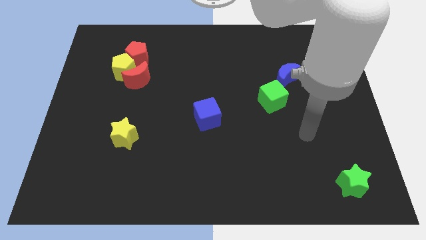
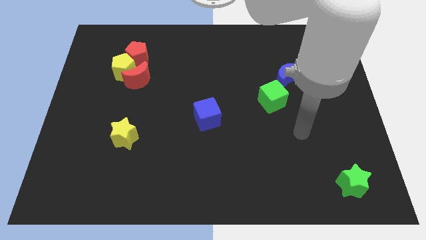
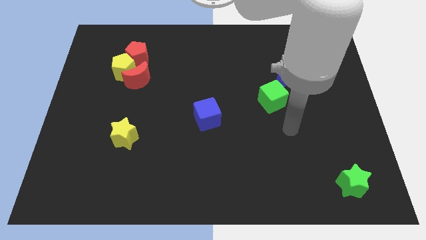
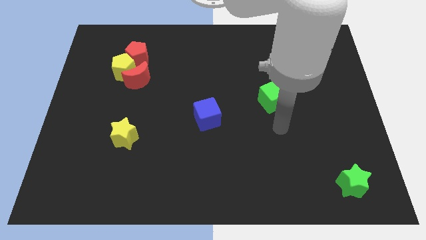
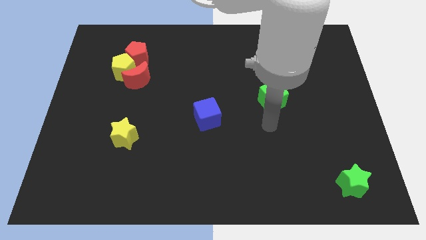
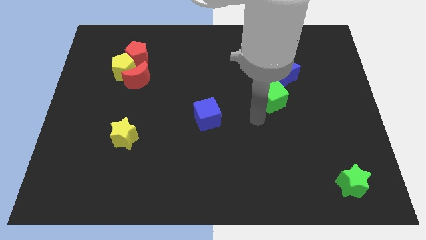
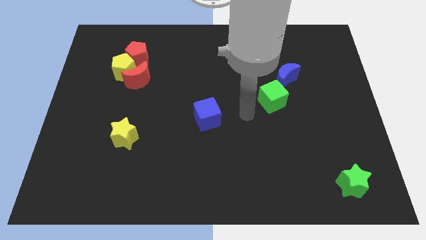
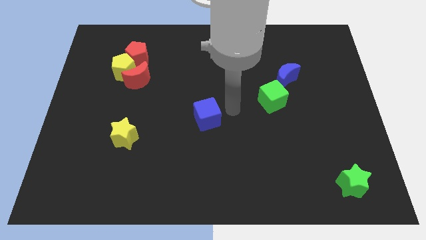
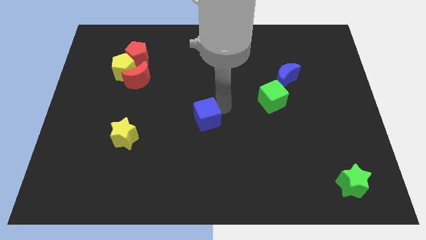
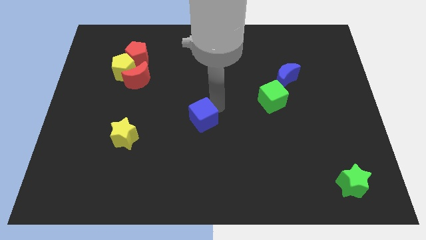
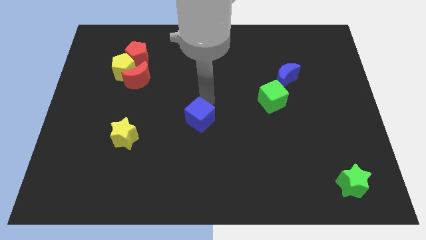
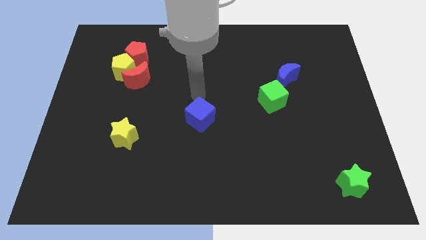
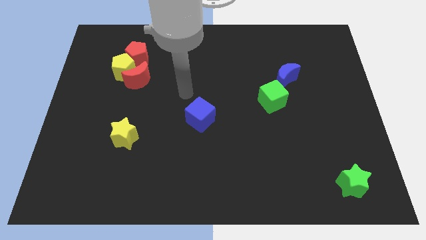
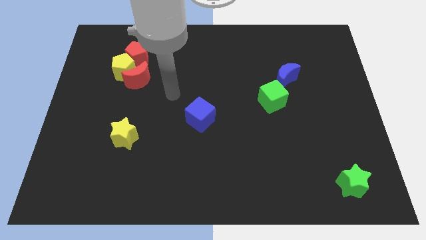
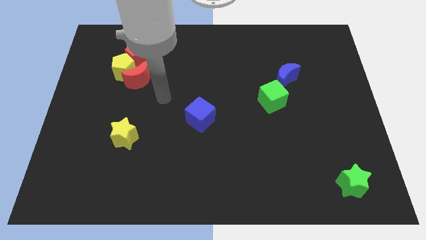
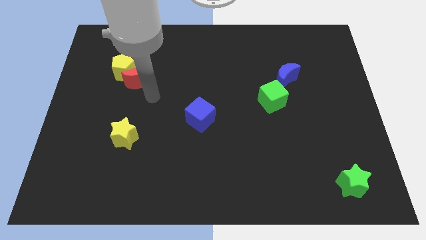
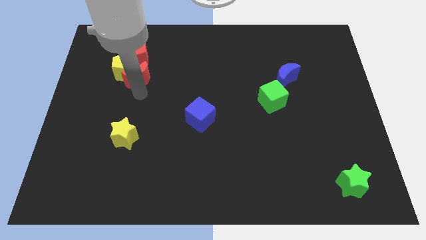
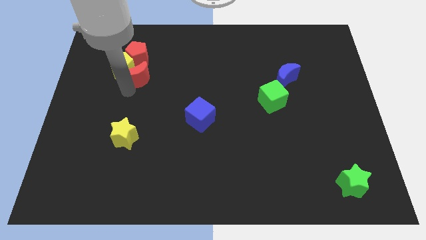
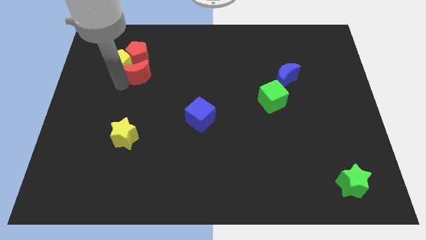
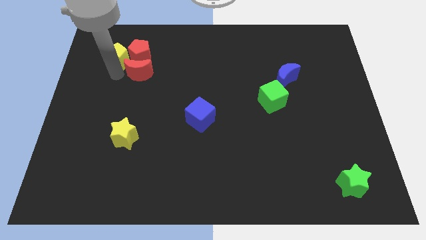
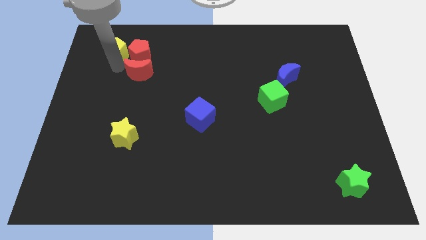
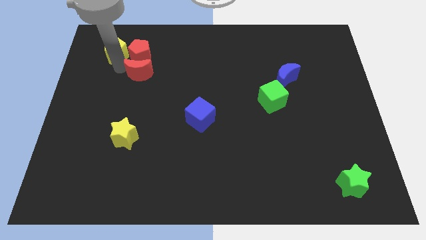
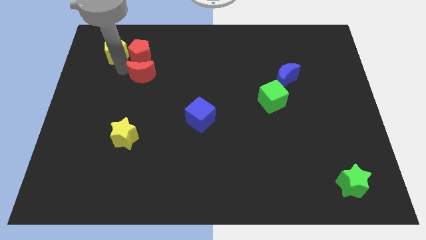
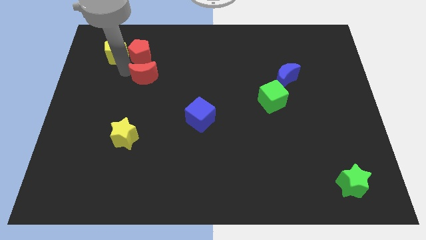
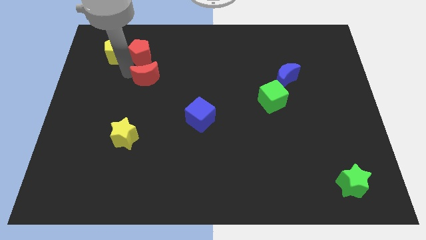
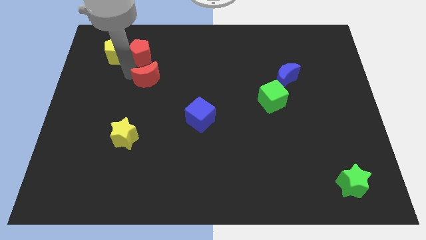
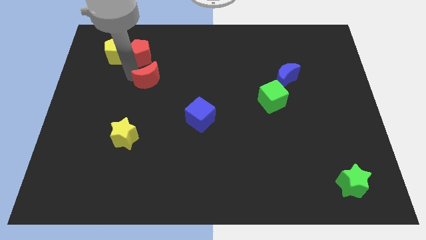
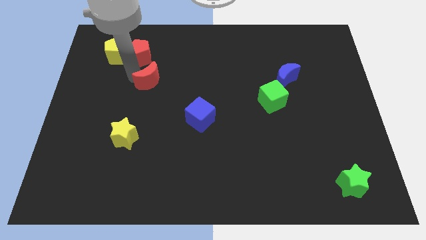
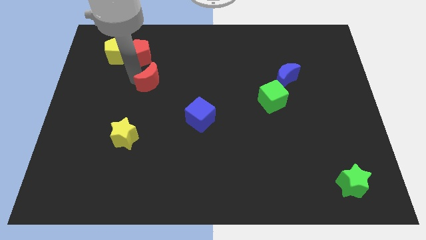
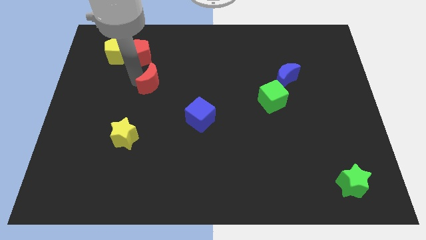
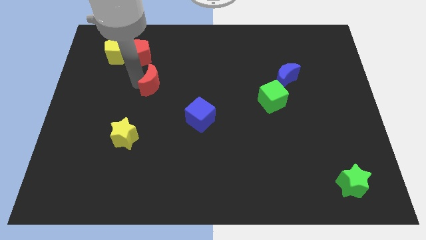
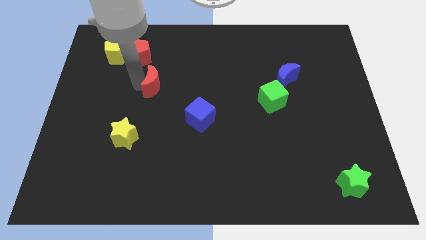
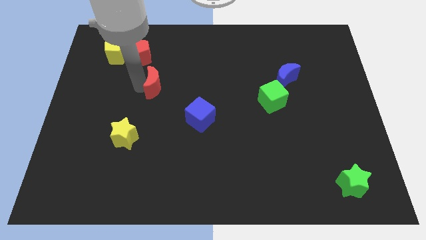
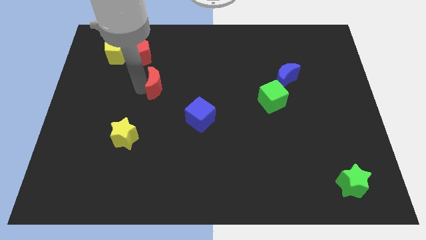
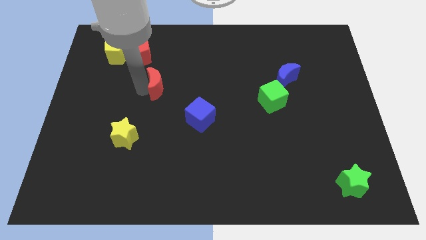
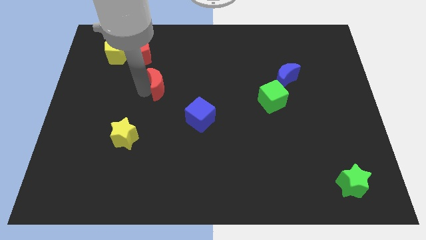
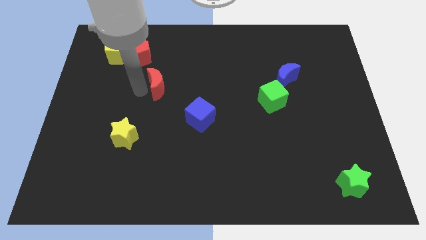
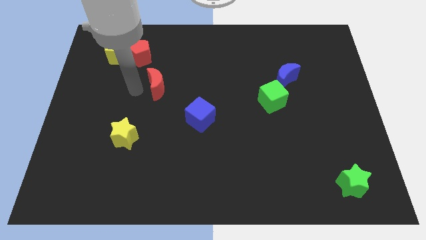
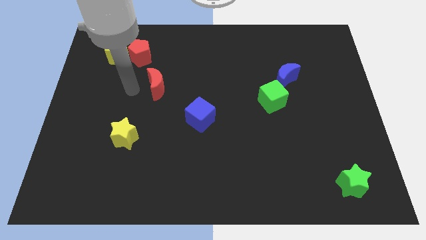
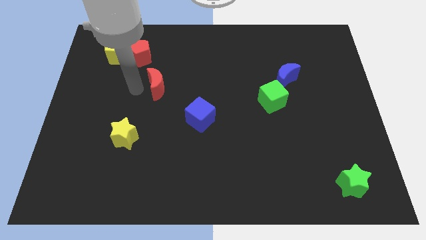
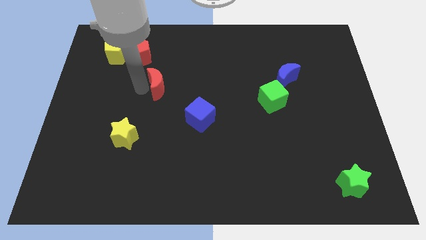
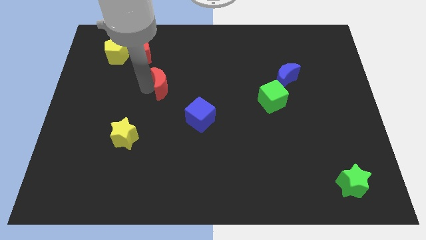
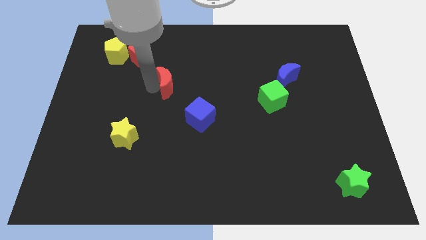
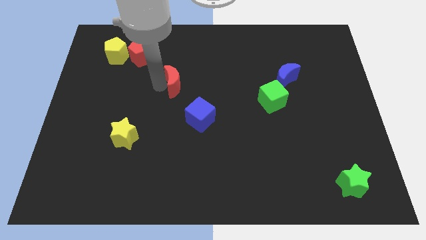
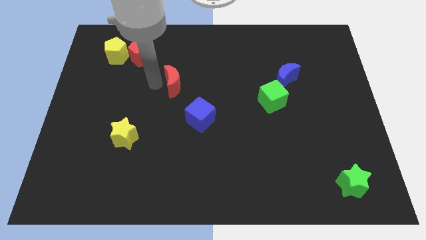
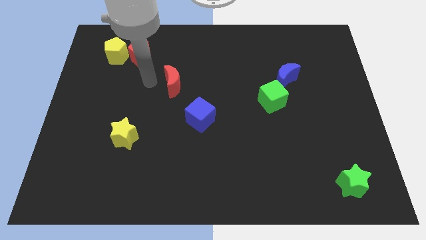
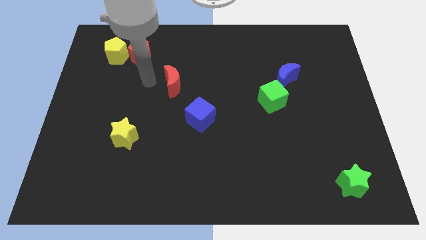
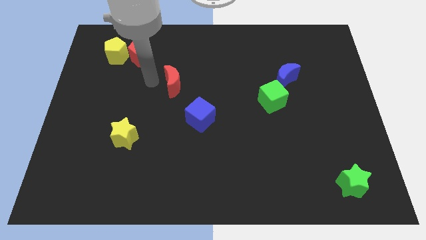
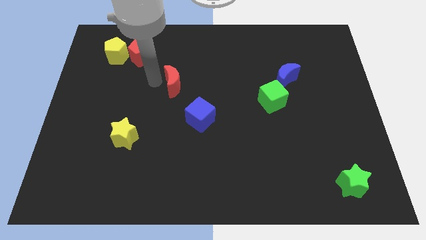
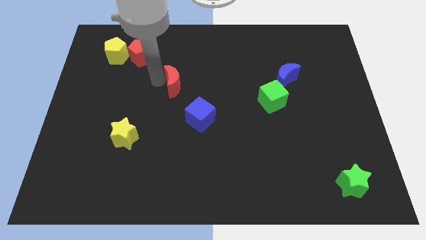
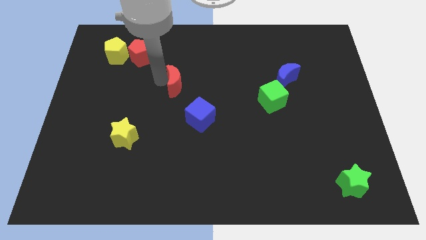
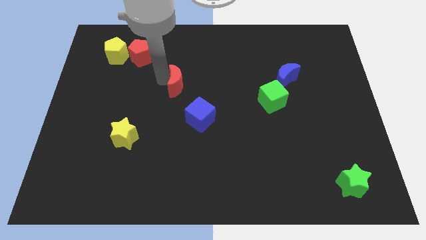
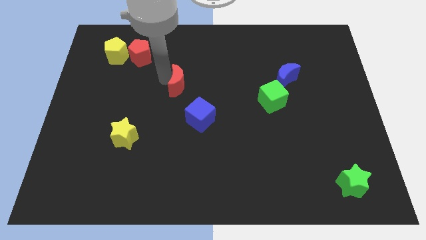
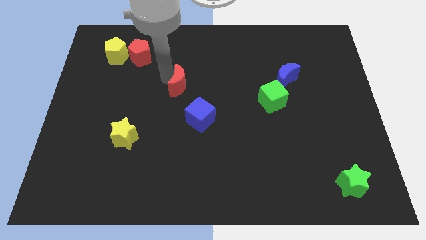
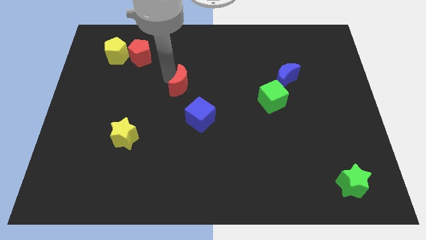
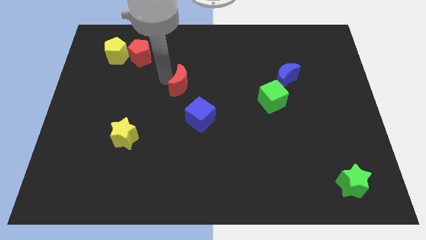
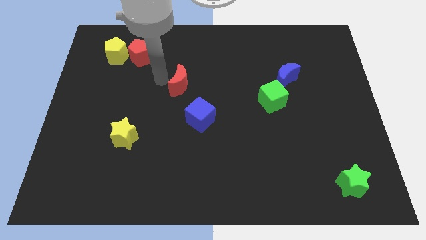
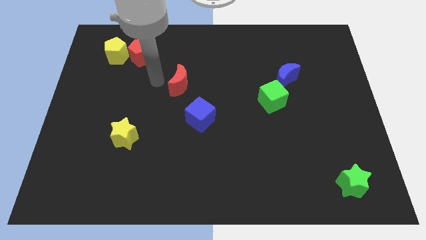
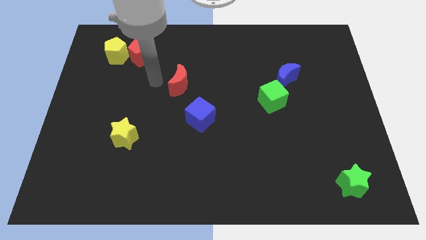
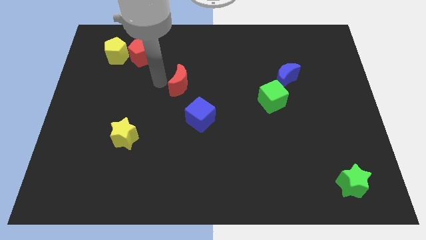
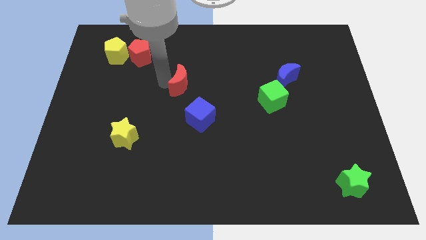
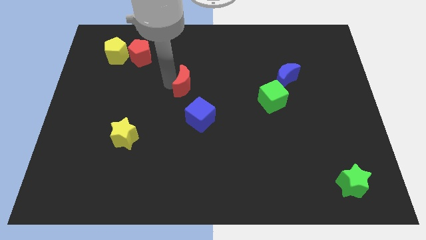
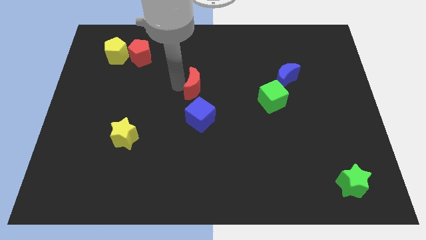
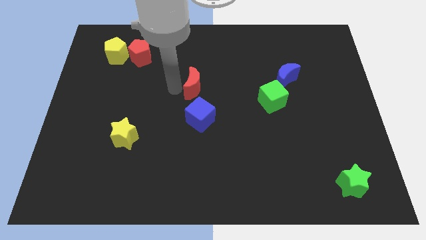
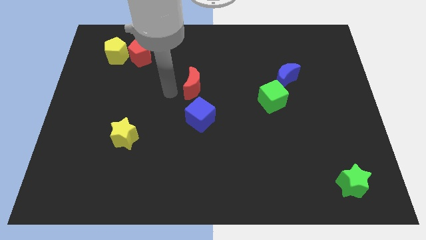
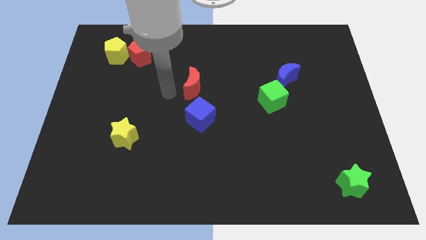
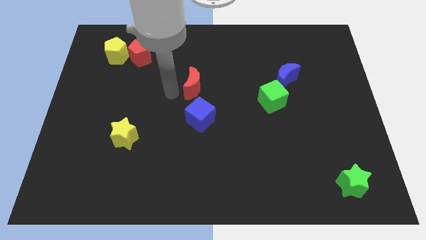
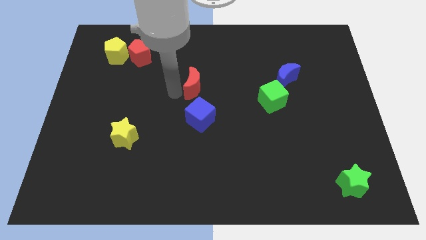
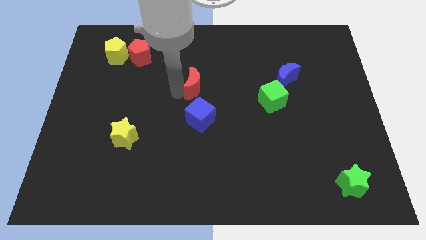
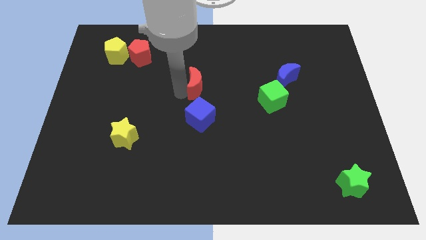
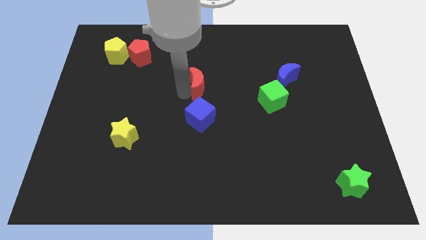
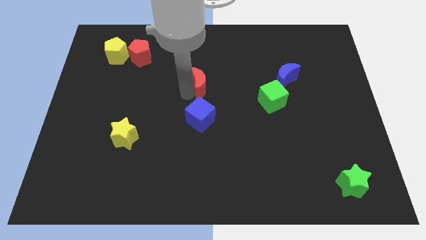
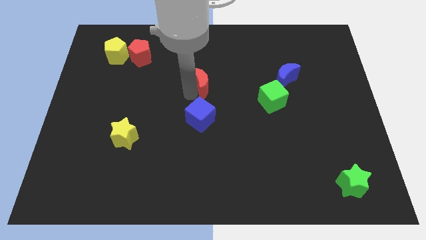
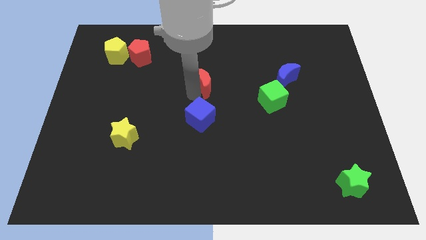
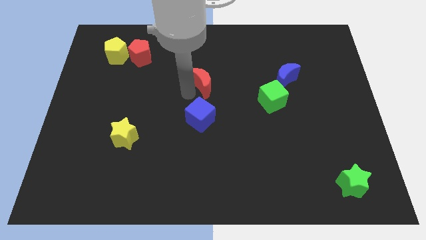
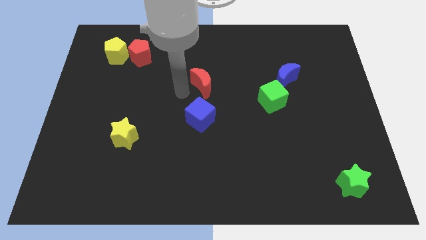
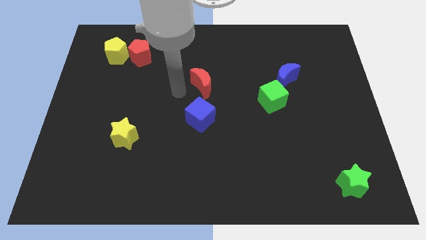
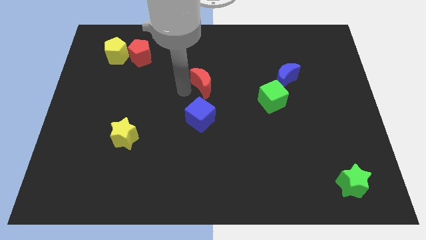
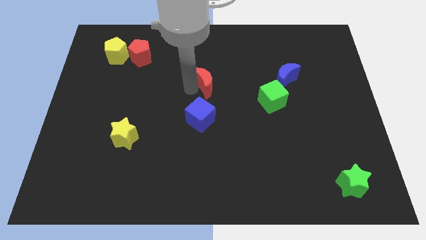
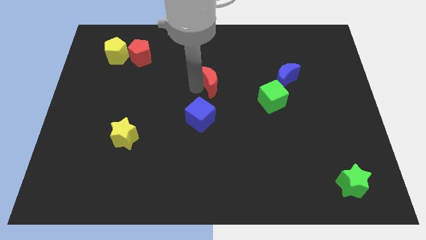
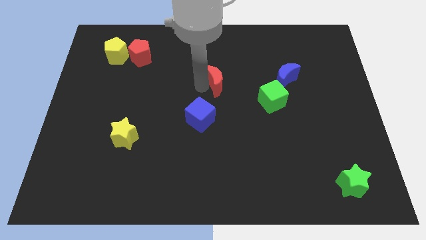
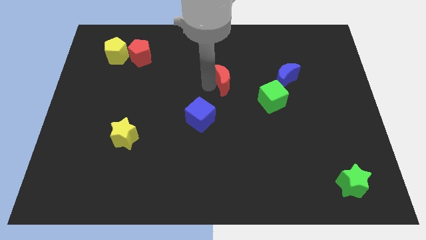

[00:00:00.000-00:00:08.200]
push the red moon right
